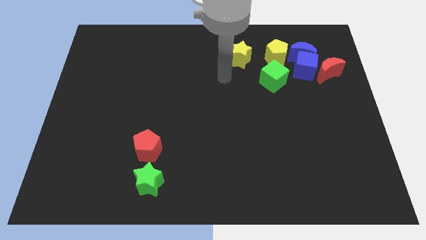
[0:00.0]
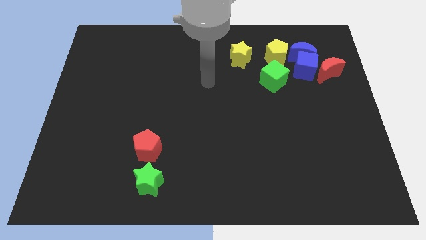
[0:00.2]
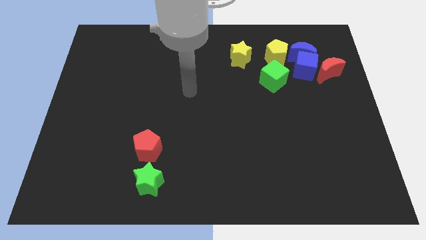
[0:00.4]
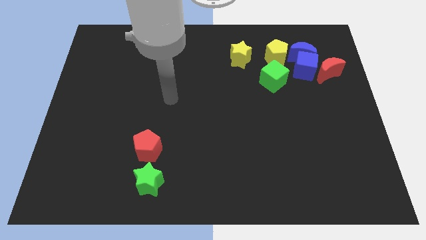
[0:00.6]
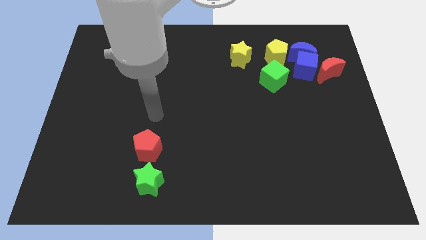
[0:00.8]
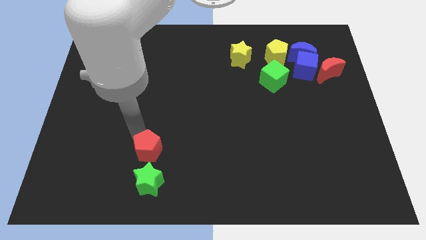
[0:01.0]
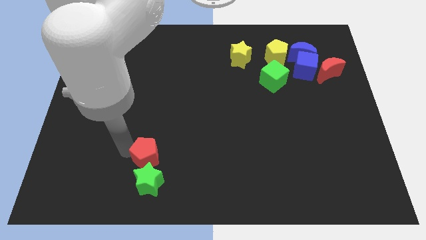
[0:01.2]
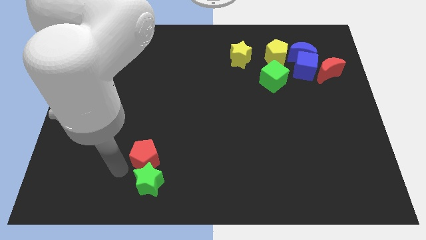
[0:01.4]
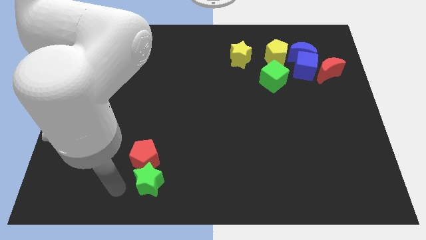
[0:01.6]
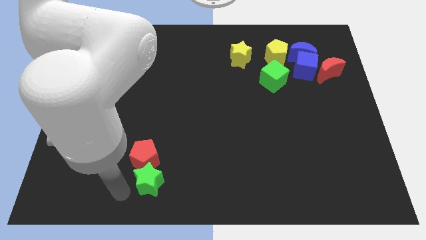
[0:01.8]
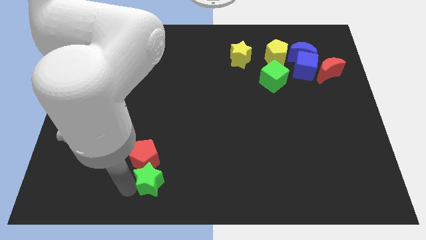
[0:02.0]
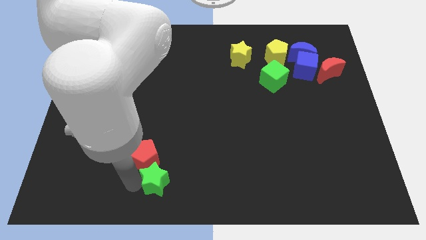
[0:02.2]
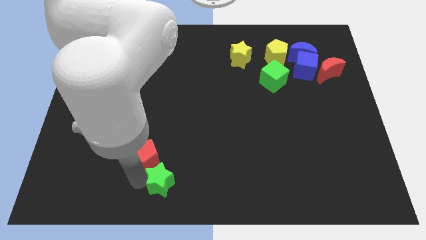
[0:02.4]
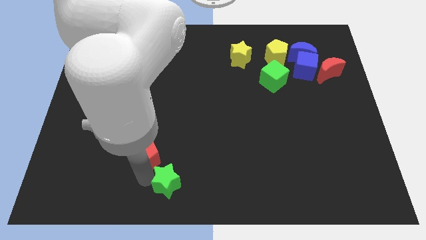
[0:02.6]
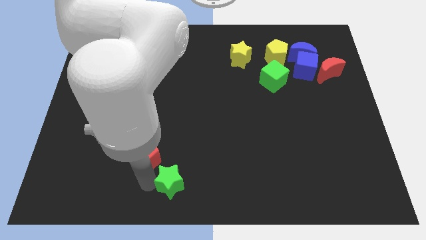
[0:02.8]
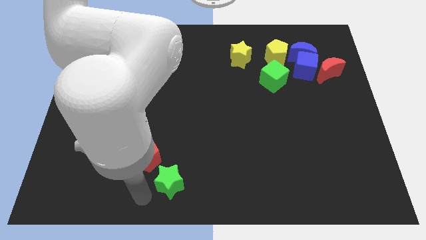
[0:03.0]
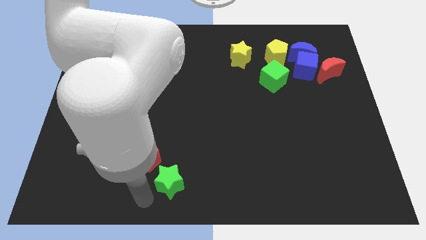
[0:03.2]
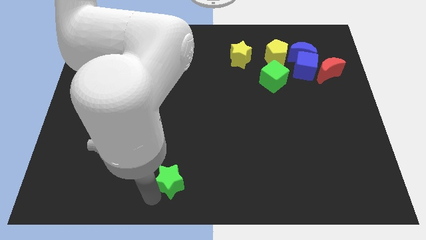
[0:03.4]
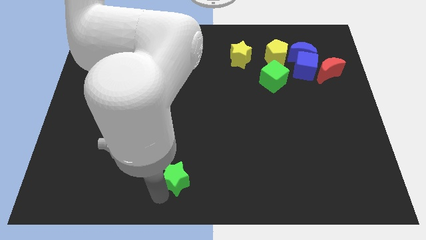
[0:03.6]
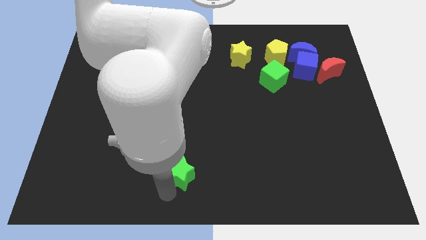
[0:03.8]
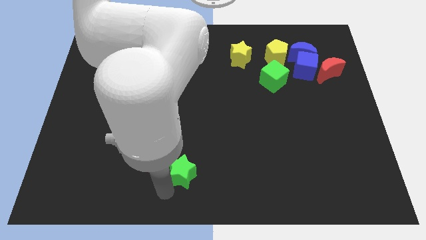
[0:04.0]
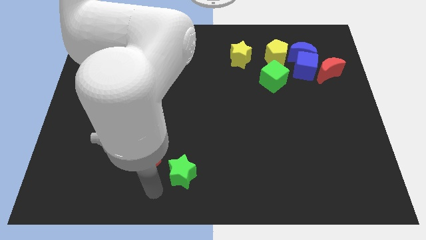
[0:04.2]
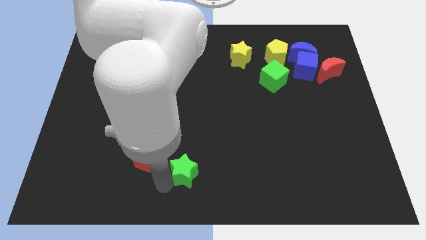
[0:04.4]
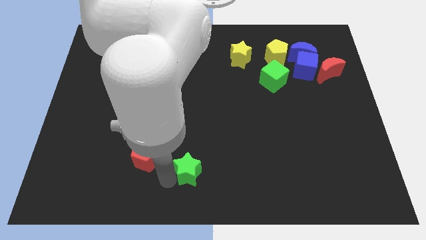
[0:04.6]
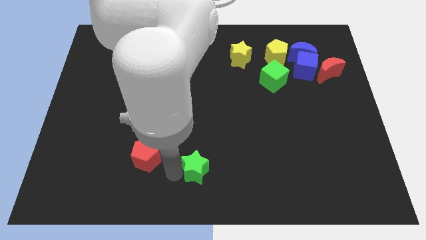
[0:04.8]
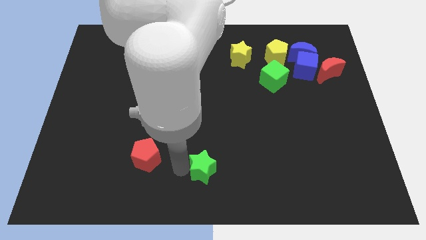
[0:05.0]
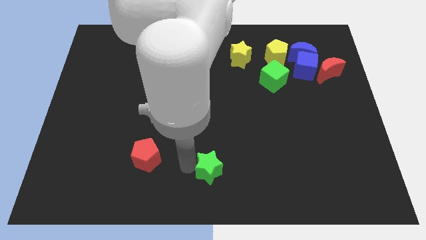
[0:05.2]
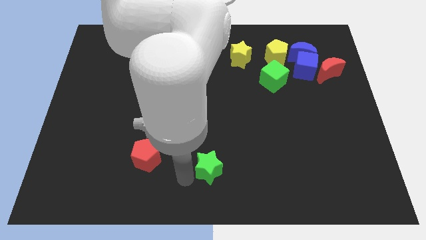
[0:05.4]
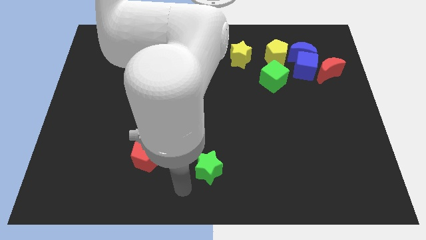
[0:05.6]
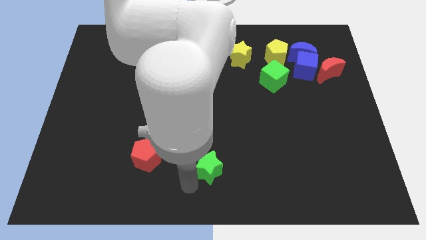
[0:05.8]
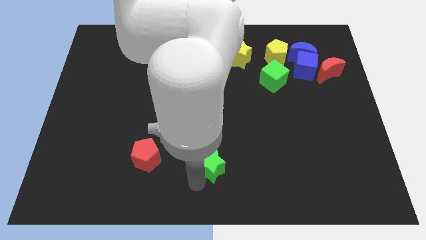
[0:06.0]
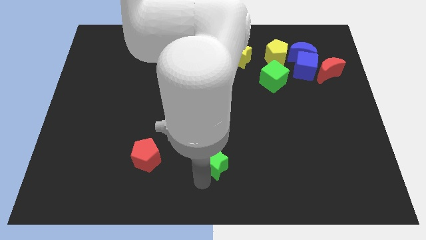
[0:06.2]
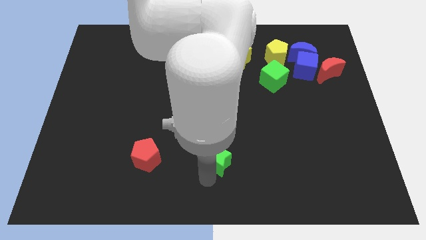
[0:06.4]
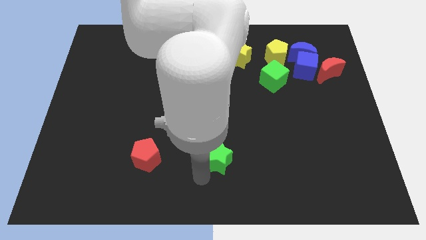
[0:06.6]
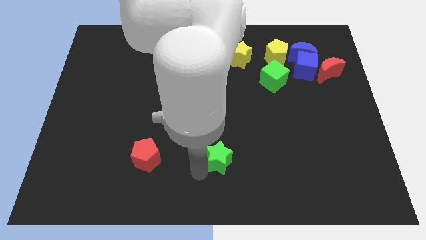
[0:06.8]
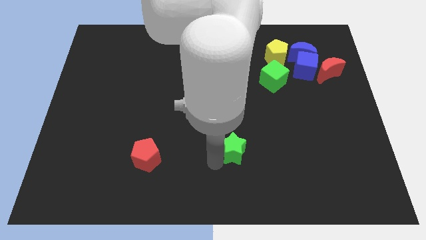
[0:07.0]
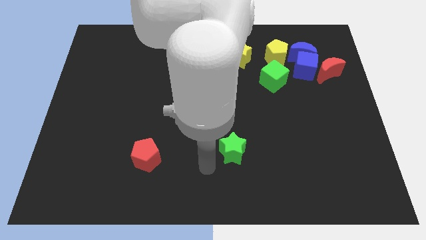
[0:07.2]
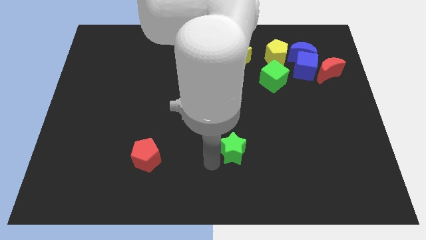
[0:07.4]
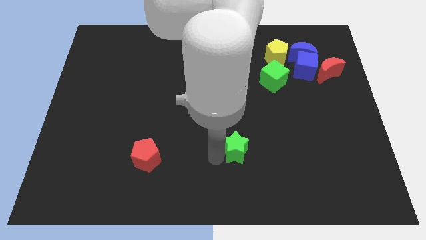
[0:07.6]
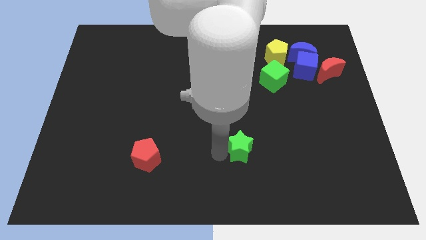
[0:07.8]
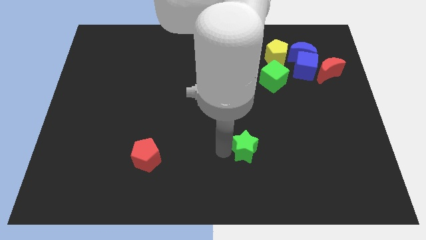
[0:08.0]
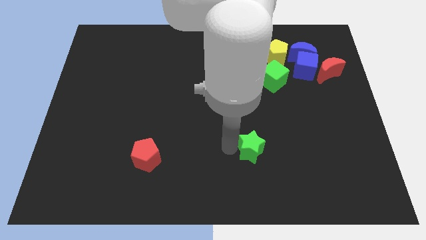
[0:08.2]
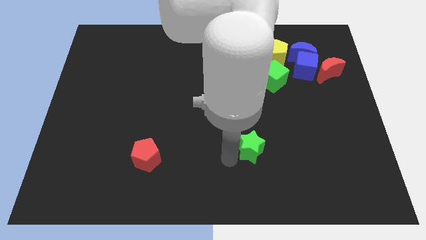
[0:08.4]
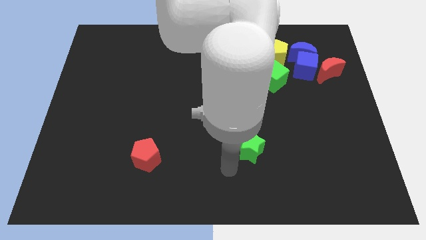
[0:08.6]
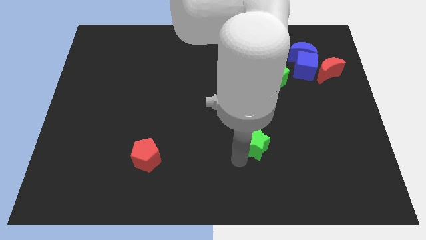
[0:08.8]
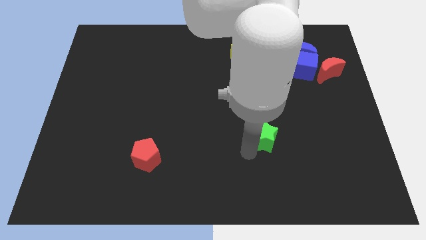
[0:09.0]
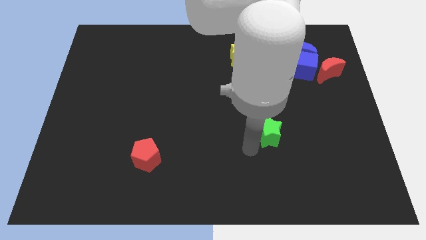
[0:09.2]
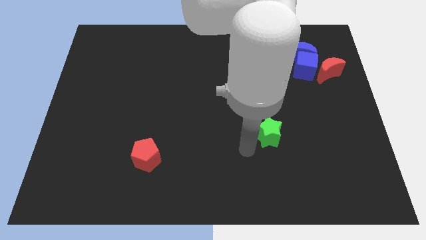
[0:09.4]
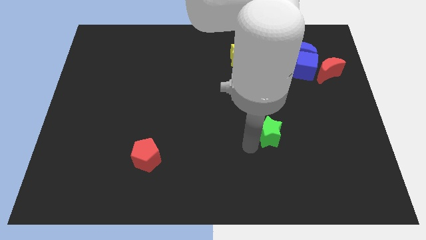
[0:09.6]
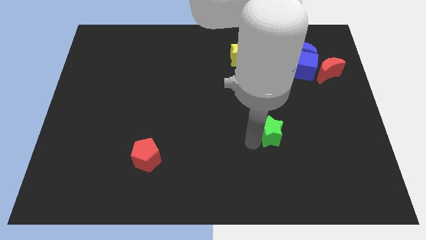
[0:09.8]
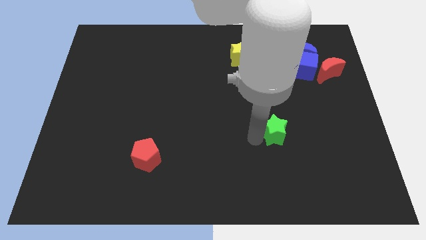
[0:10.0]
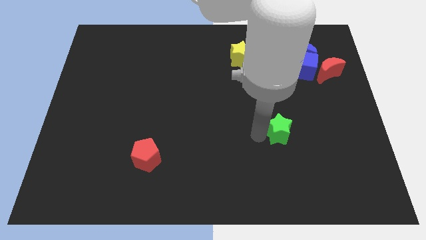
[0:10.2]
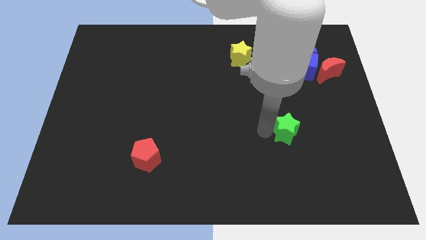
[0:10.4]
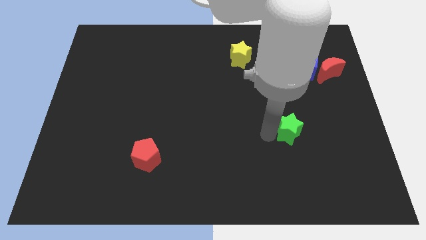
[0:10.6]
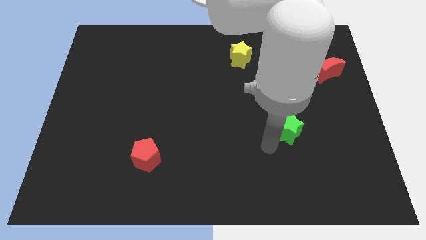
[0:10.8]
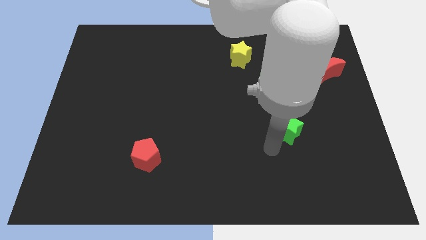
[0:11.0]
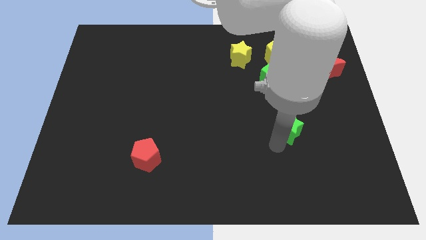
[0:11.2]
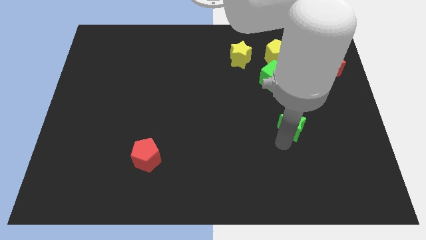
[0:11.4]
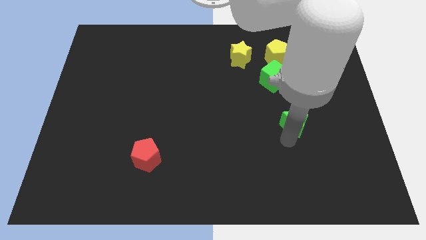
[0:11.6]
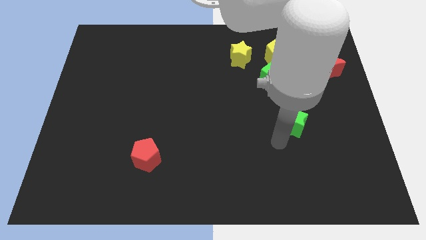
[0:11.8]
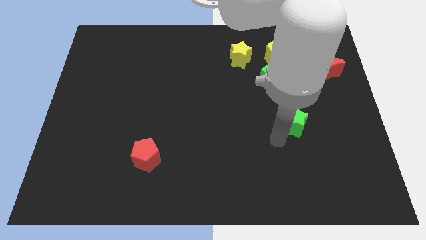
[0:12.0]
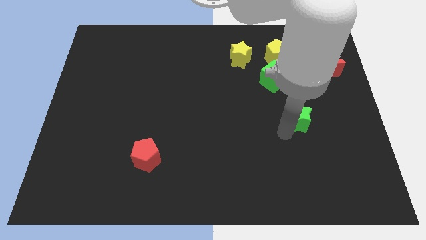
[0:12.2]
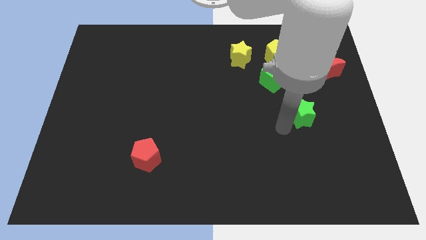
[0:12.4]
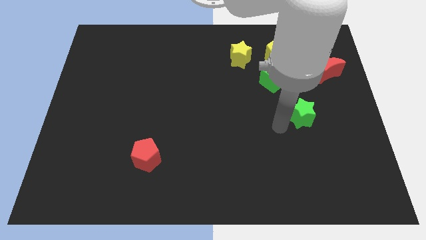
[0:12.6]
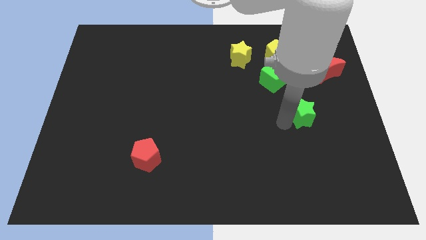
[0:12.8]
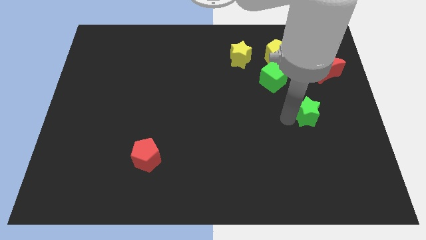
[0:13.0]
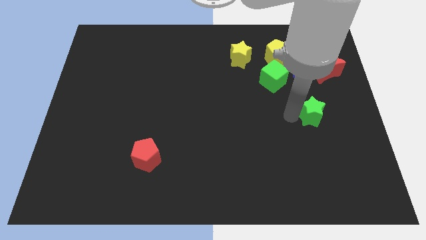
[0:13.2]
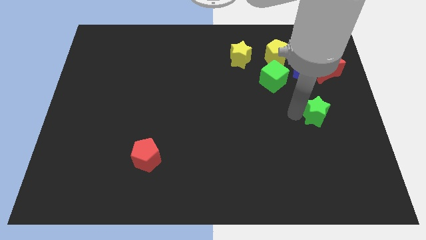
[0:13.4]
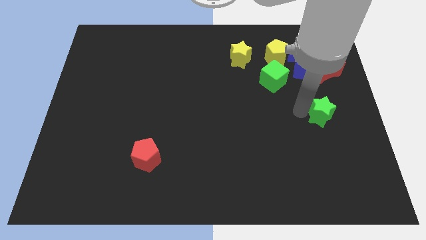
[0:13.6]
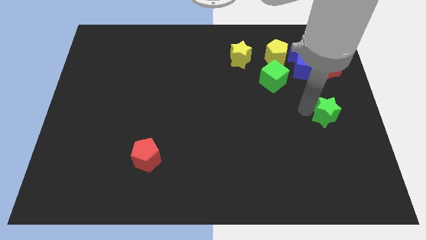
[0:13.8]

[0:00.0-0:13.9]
slide the green star to the center right
